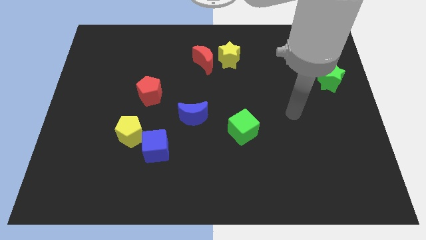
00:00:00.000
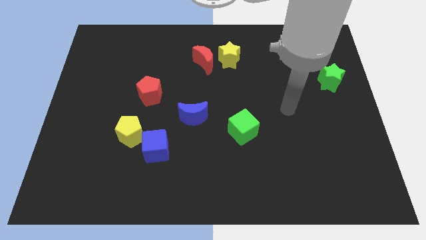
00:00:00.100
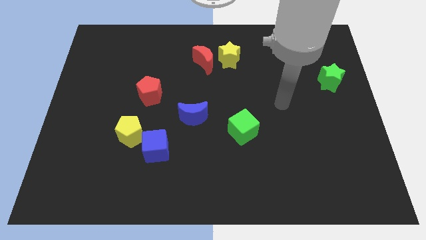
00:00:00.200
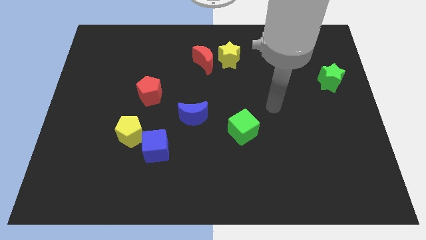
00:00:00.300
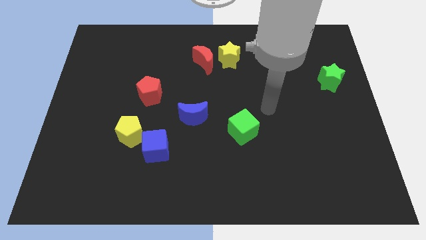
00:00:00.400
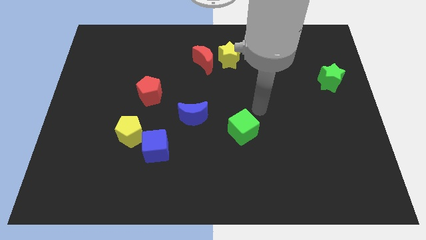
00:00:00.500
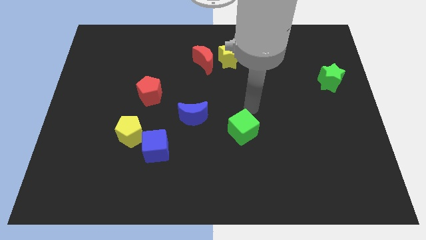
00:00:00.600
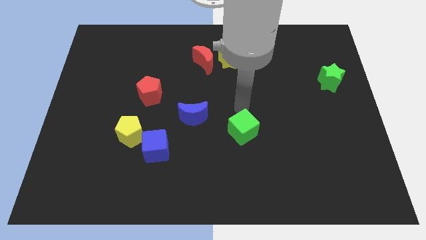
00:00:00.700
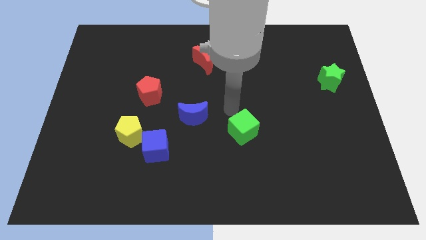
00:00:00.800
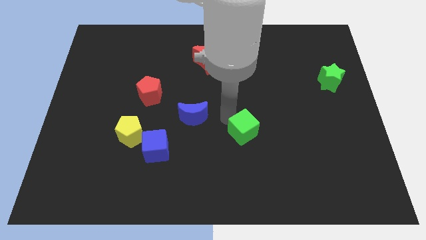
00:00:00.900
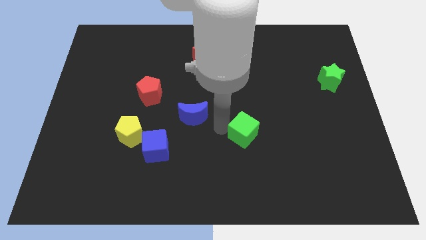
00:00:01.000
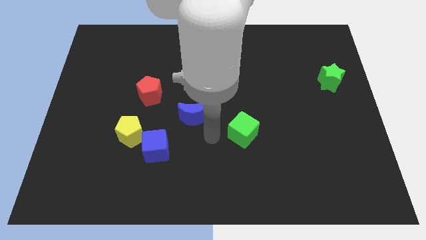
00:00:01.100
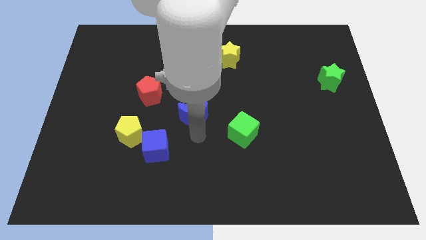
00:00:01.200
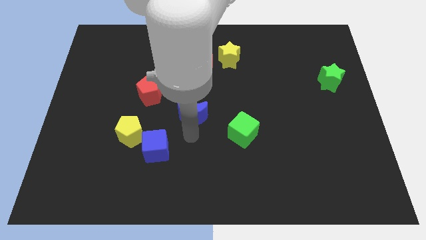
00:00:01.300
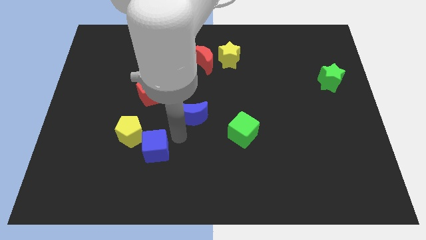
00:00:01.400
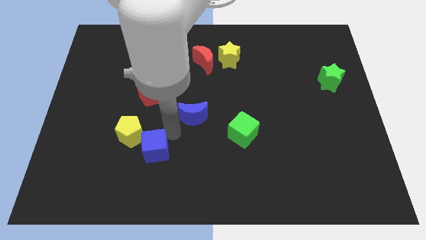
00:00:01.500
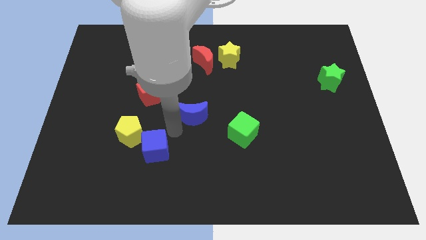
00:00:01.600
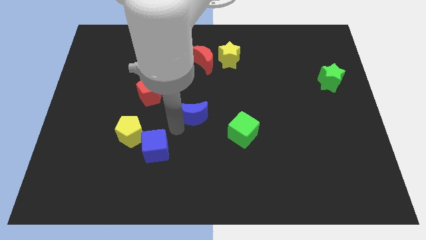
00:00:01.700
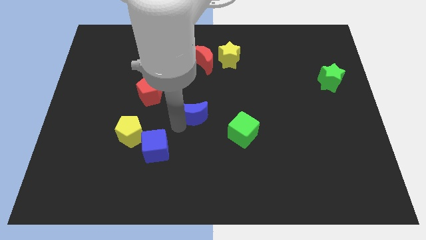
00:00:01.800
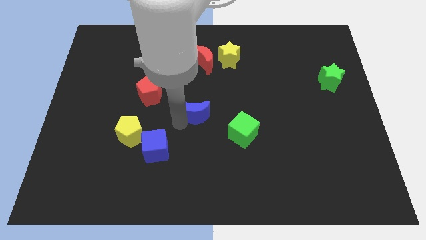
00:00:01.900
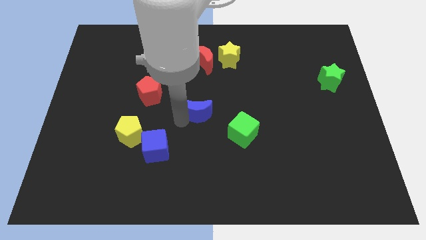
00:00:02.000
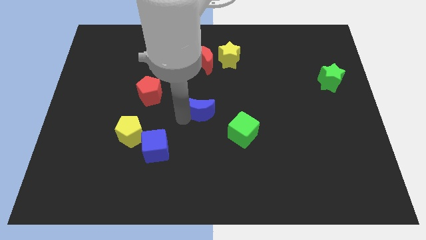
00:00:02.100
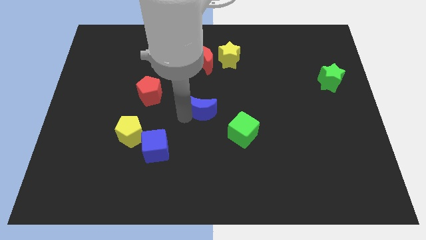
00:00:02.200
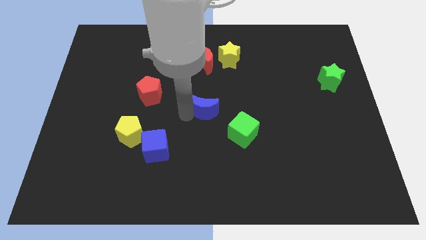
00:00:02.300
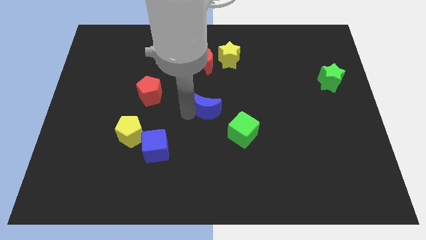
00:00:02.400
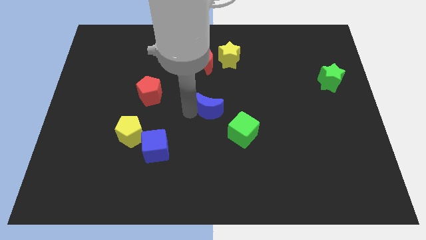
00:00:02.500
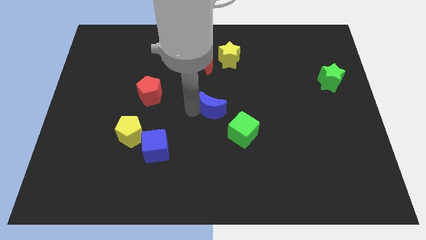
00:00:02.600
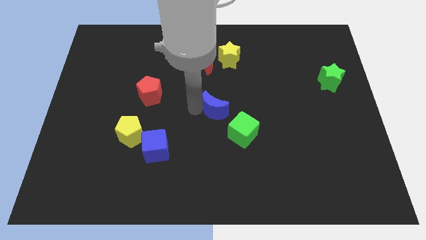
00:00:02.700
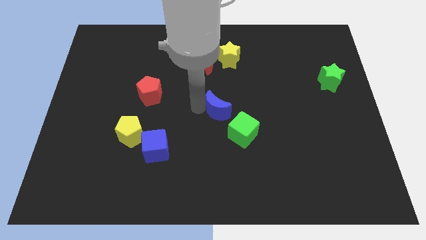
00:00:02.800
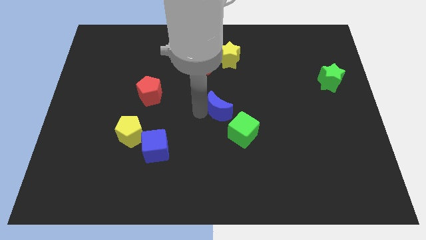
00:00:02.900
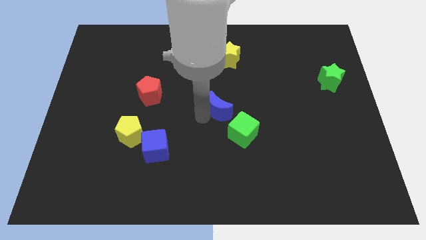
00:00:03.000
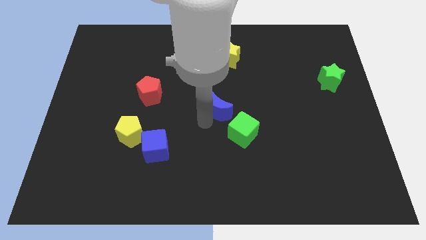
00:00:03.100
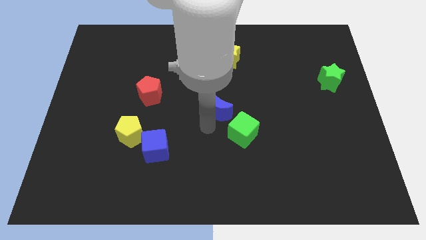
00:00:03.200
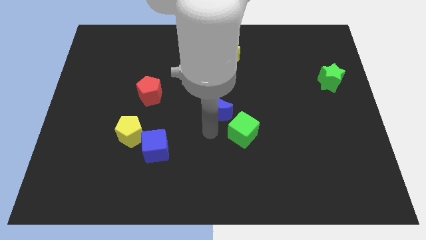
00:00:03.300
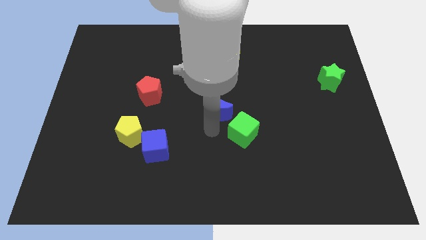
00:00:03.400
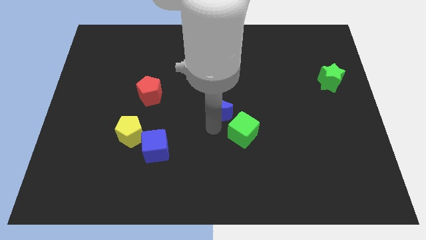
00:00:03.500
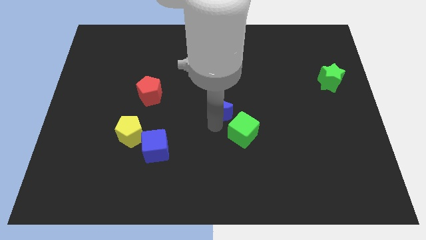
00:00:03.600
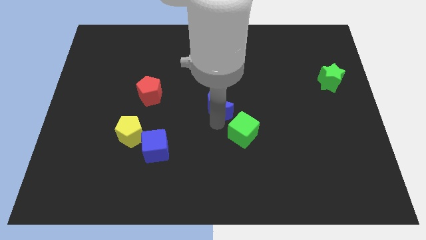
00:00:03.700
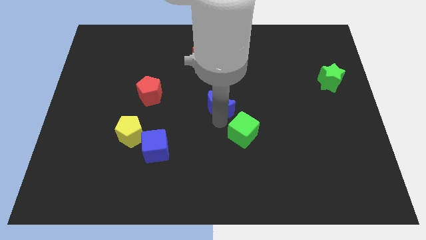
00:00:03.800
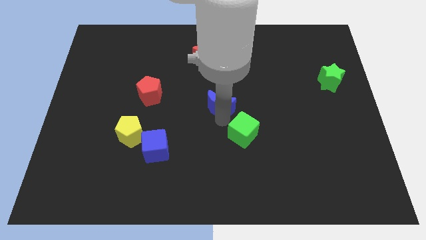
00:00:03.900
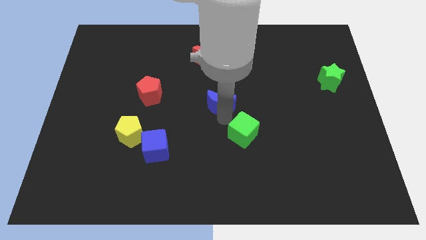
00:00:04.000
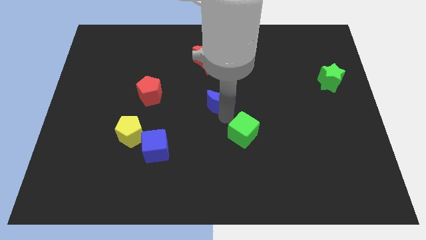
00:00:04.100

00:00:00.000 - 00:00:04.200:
slide the blue moon a little upwards and to the right

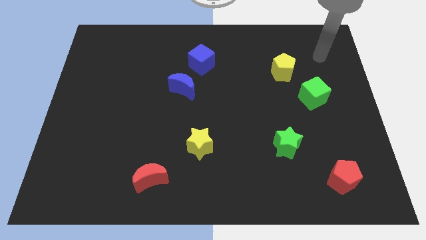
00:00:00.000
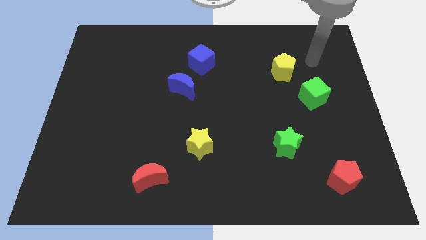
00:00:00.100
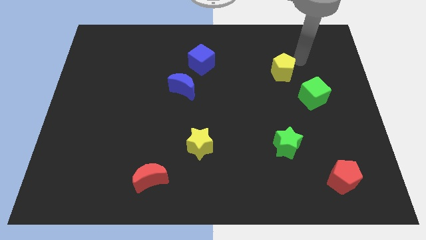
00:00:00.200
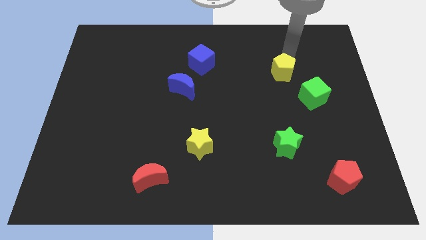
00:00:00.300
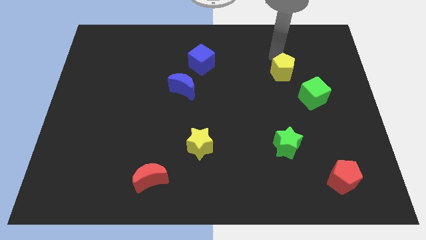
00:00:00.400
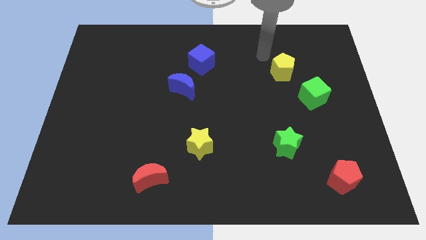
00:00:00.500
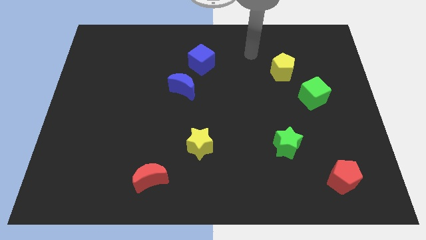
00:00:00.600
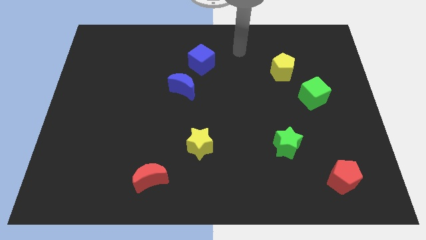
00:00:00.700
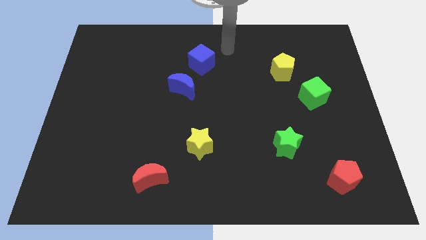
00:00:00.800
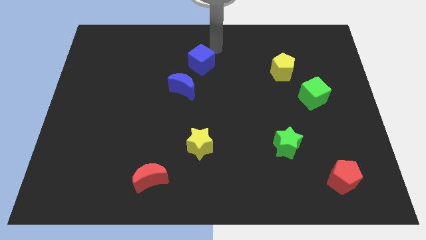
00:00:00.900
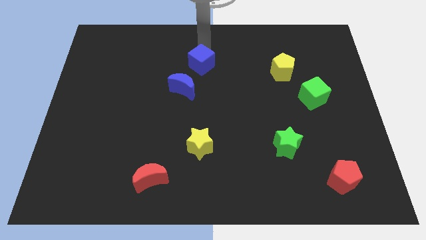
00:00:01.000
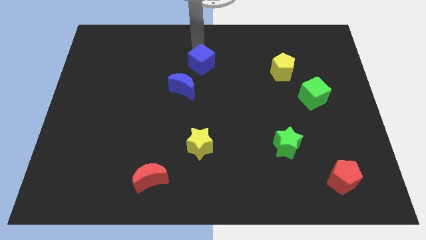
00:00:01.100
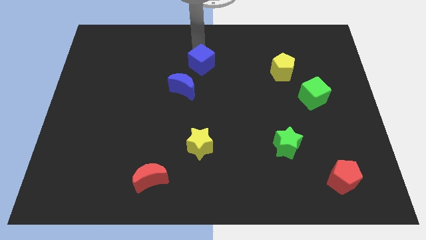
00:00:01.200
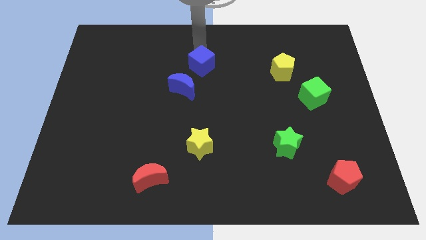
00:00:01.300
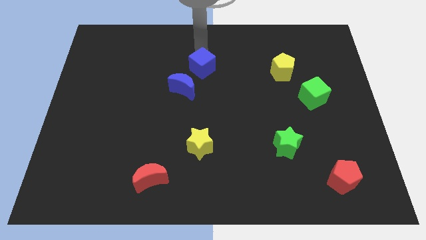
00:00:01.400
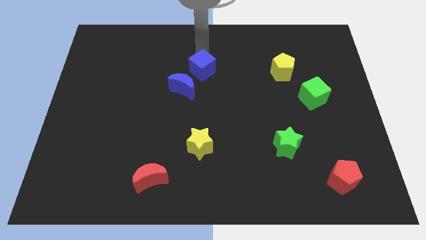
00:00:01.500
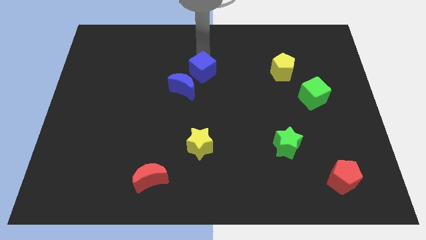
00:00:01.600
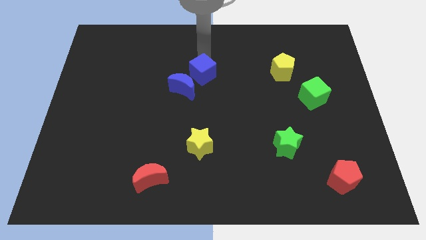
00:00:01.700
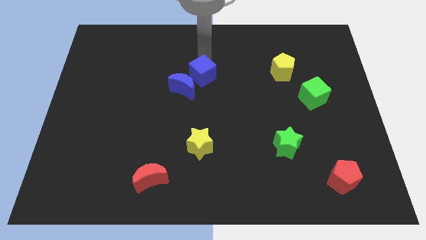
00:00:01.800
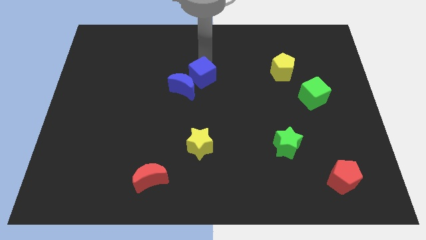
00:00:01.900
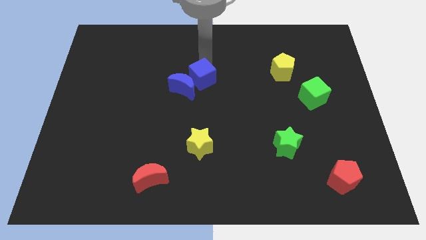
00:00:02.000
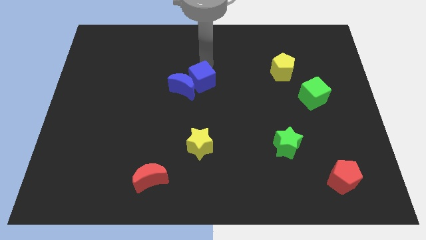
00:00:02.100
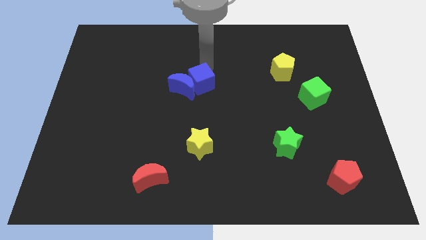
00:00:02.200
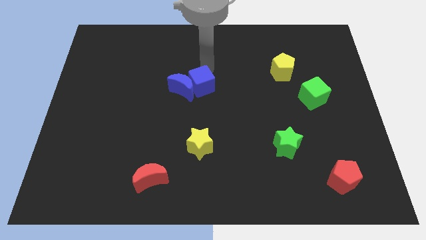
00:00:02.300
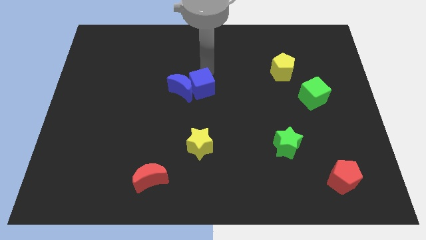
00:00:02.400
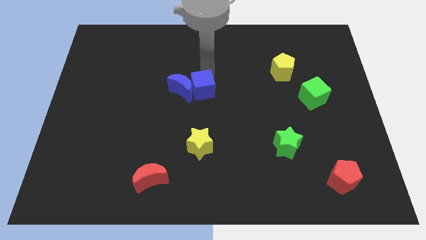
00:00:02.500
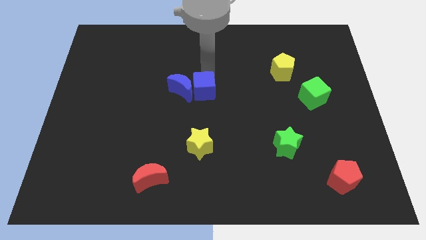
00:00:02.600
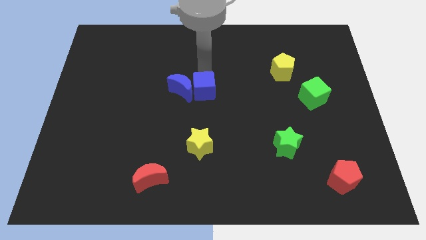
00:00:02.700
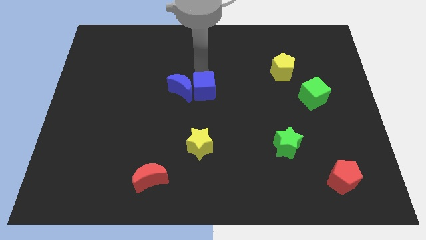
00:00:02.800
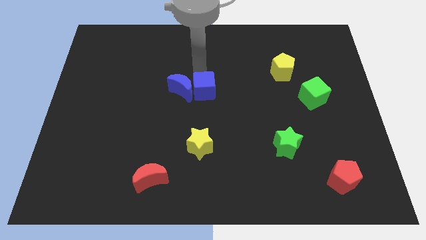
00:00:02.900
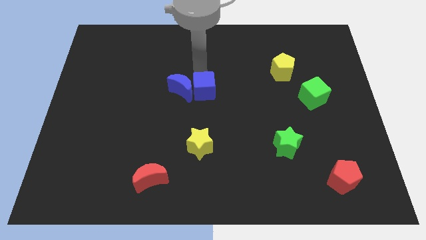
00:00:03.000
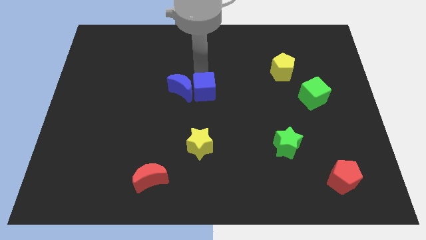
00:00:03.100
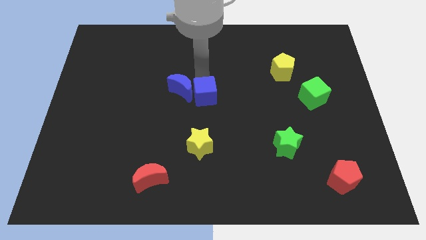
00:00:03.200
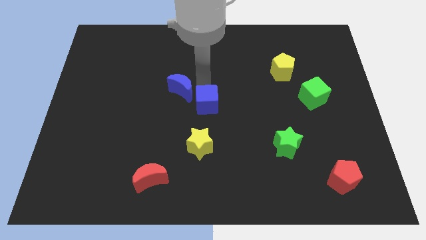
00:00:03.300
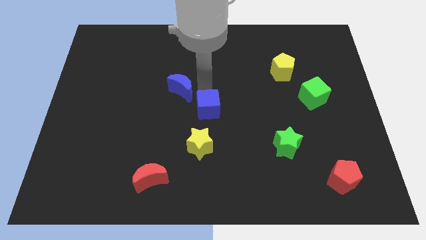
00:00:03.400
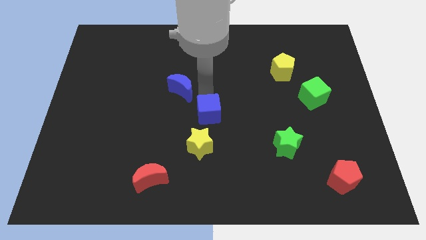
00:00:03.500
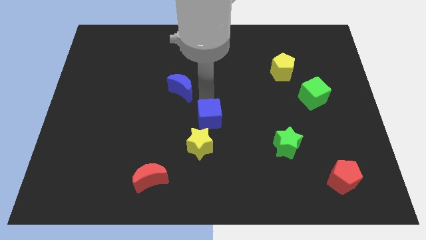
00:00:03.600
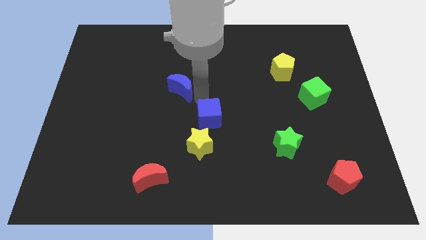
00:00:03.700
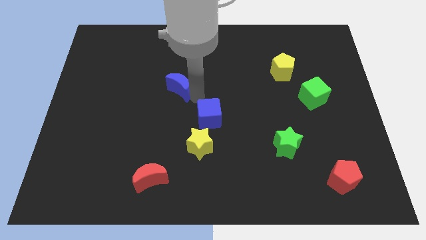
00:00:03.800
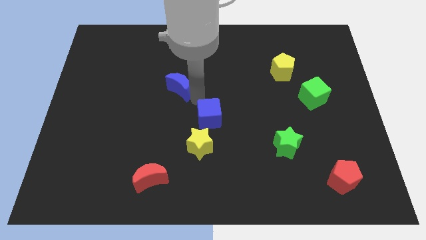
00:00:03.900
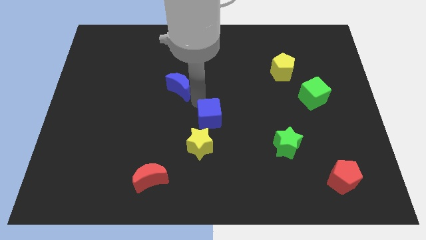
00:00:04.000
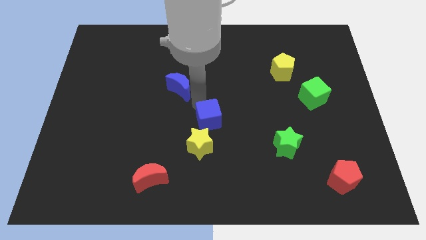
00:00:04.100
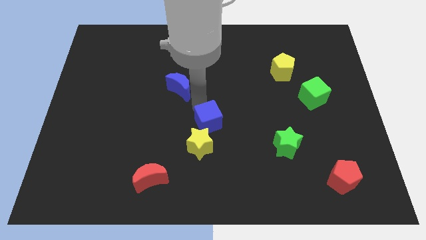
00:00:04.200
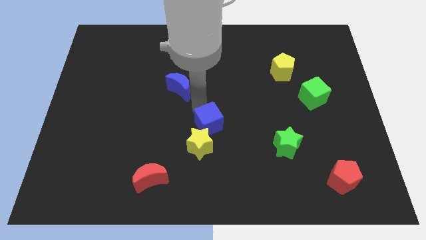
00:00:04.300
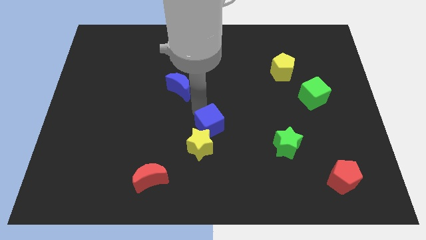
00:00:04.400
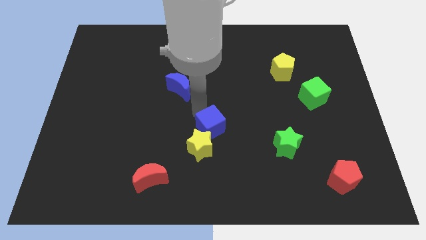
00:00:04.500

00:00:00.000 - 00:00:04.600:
push the blue cube down
